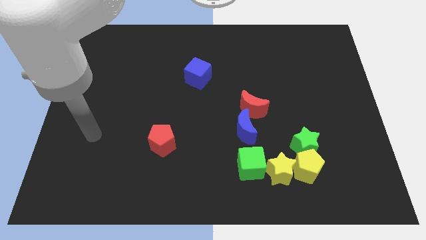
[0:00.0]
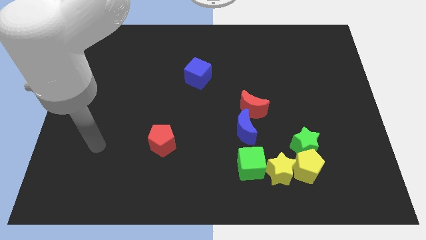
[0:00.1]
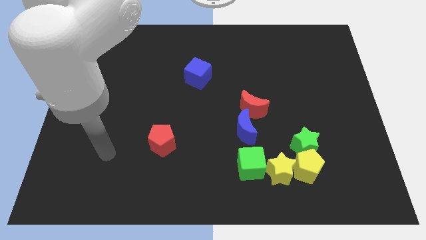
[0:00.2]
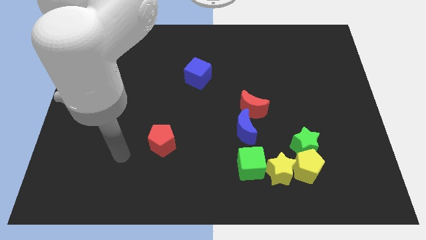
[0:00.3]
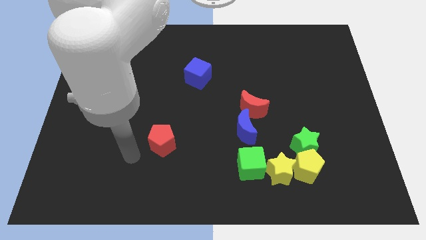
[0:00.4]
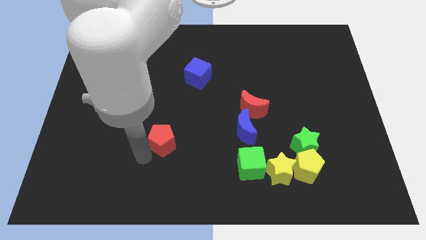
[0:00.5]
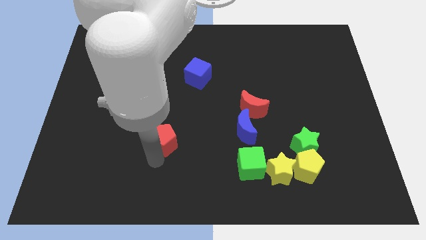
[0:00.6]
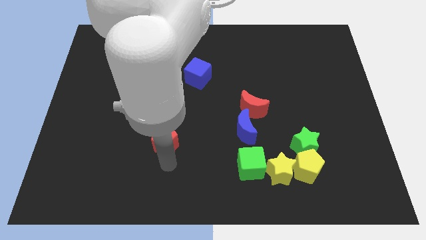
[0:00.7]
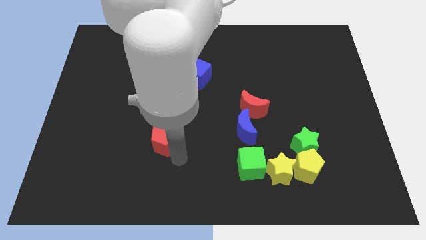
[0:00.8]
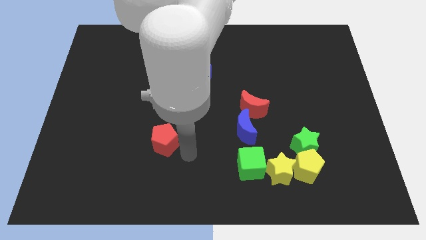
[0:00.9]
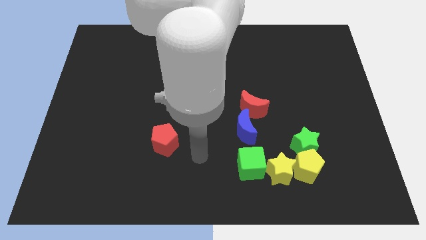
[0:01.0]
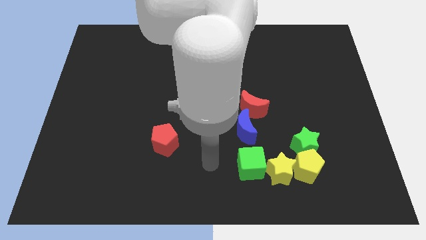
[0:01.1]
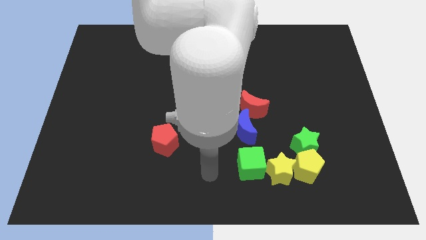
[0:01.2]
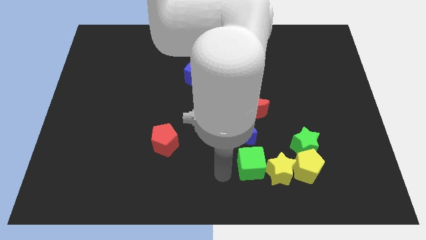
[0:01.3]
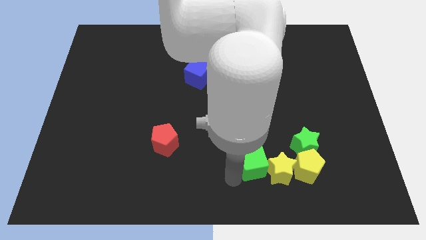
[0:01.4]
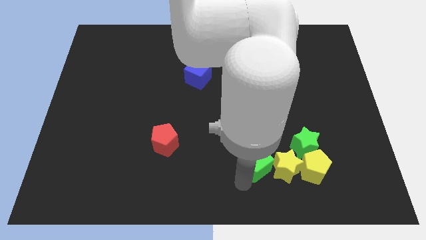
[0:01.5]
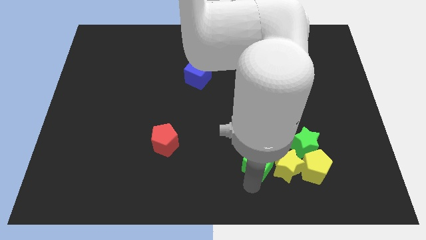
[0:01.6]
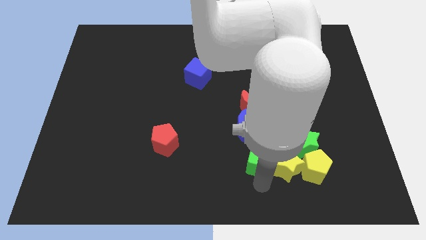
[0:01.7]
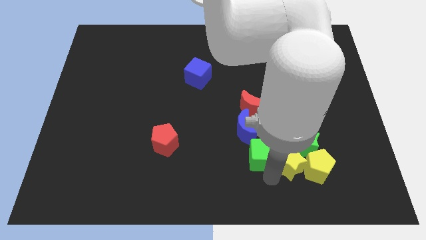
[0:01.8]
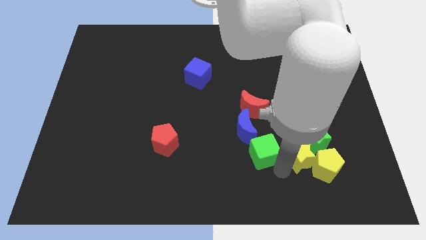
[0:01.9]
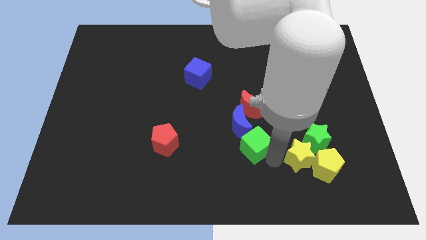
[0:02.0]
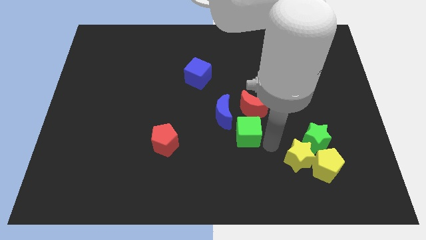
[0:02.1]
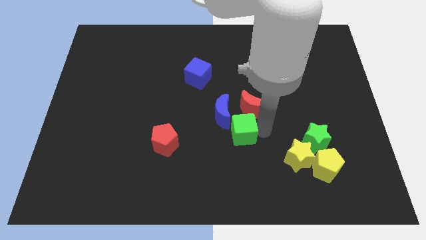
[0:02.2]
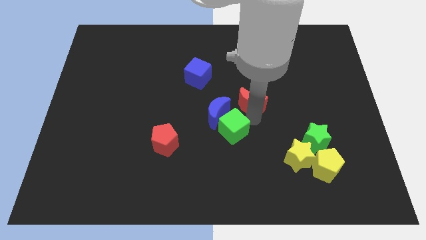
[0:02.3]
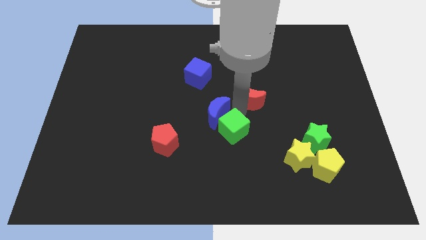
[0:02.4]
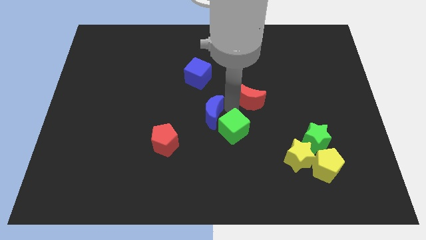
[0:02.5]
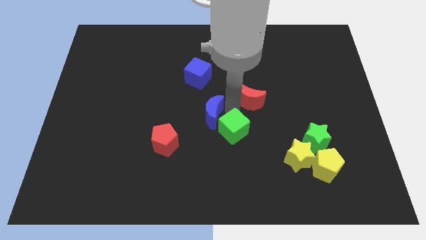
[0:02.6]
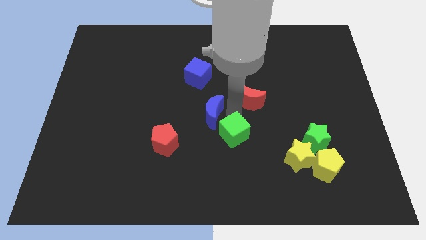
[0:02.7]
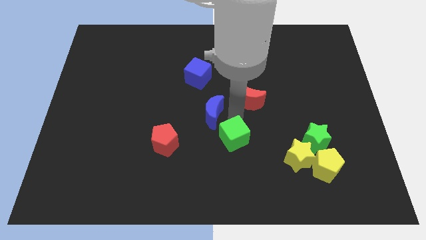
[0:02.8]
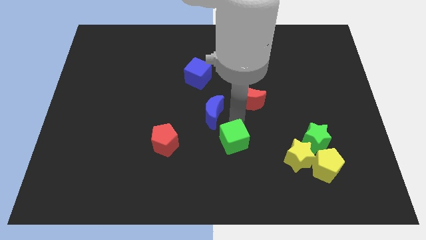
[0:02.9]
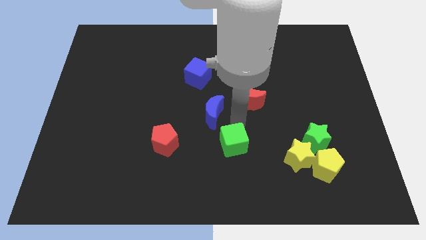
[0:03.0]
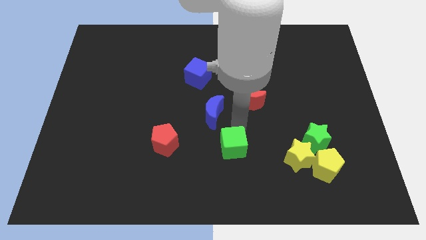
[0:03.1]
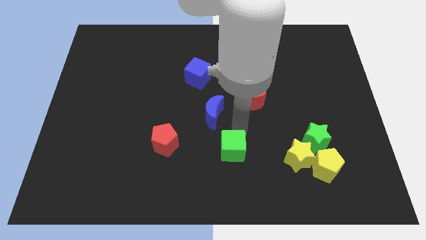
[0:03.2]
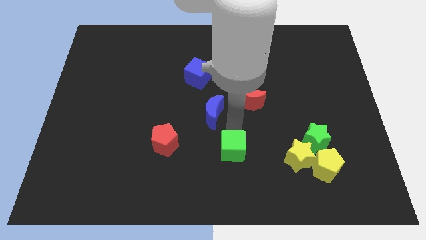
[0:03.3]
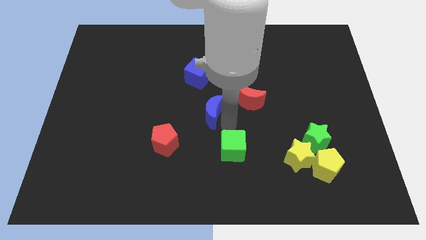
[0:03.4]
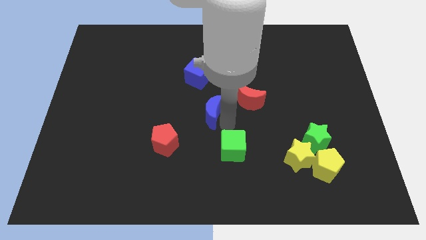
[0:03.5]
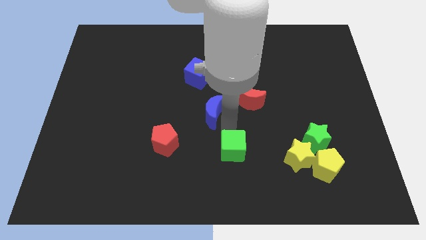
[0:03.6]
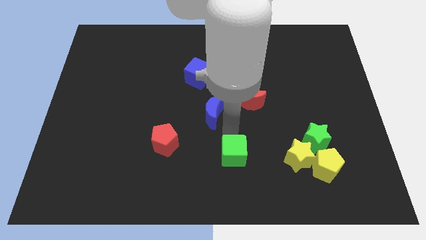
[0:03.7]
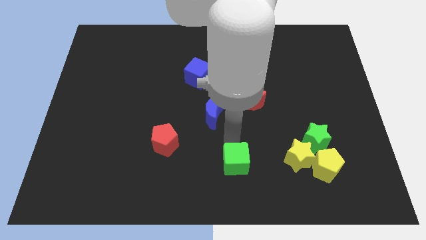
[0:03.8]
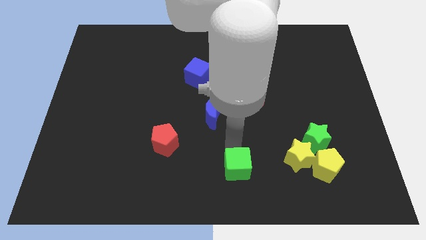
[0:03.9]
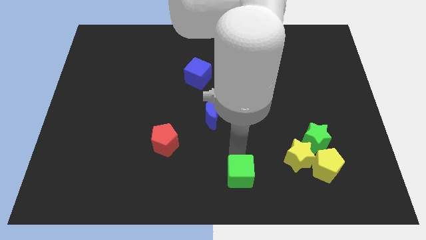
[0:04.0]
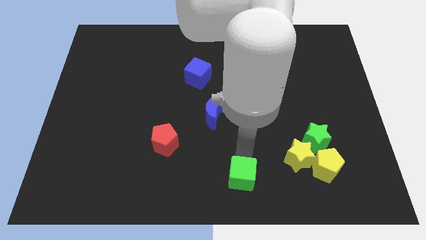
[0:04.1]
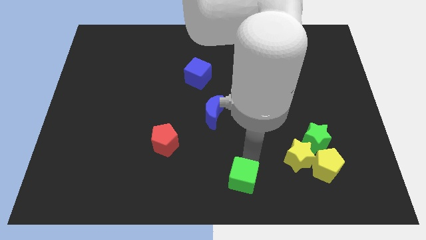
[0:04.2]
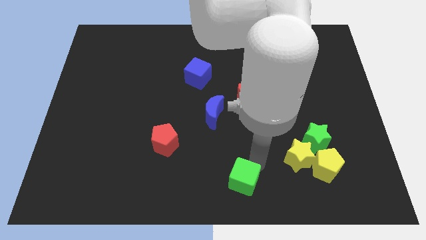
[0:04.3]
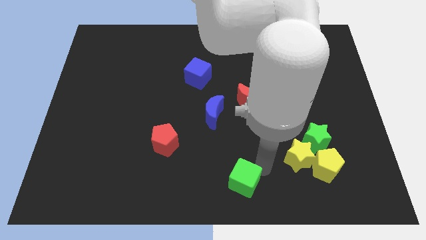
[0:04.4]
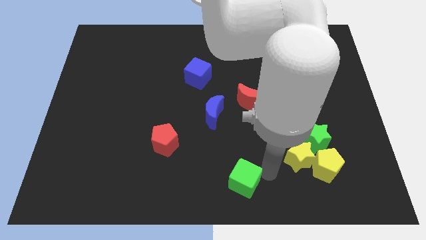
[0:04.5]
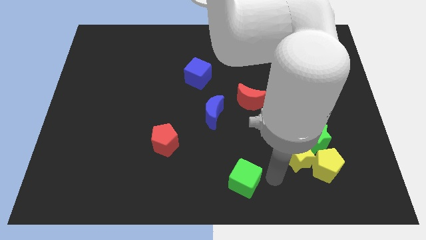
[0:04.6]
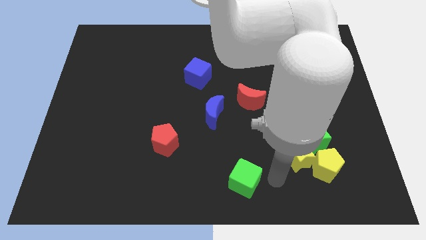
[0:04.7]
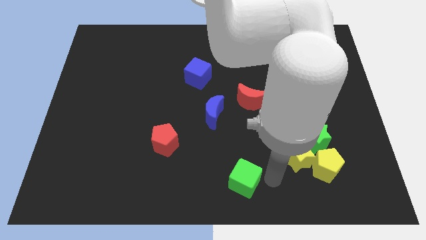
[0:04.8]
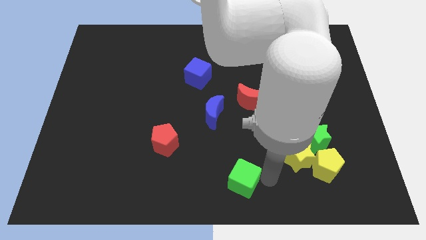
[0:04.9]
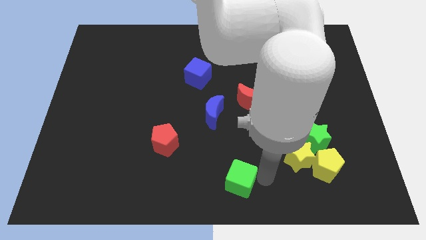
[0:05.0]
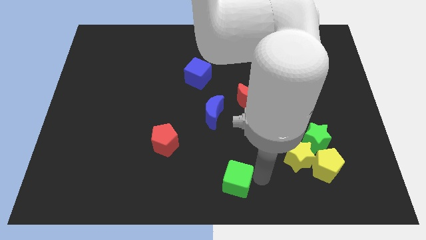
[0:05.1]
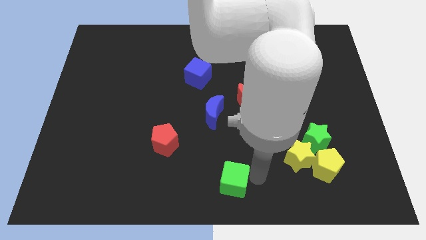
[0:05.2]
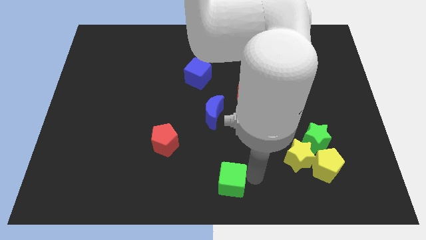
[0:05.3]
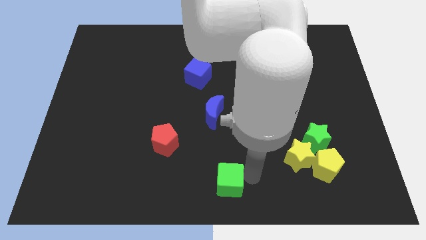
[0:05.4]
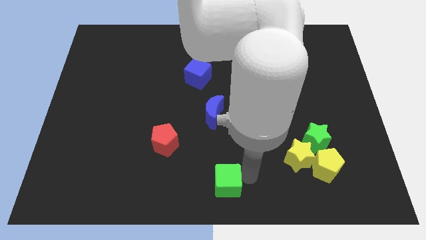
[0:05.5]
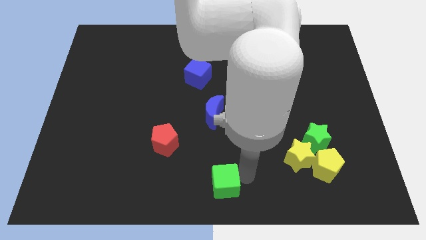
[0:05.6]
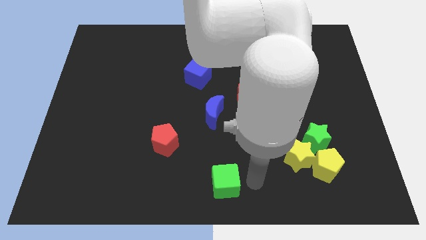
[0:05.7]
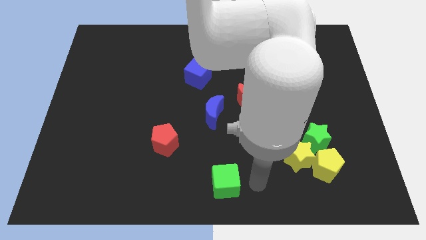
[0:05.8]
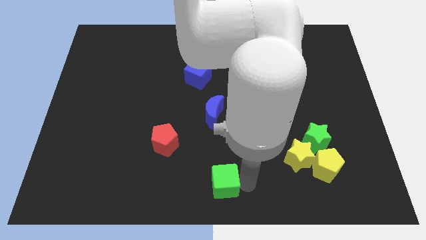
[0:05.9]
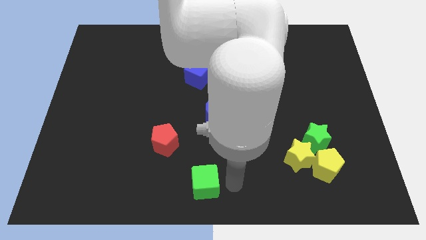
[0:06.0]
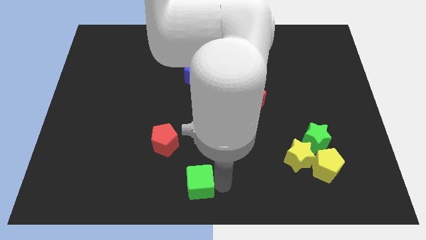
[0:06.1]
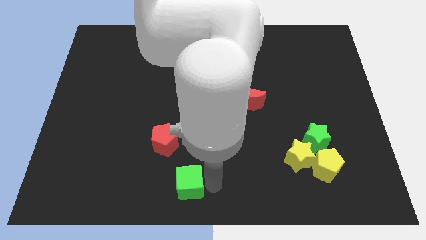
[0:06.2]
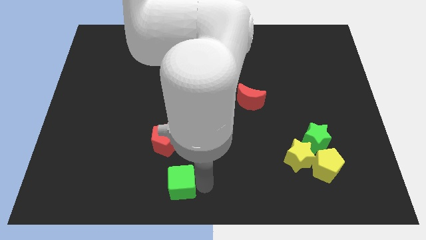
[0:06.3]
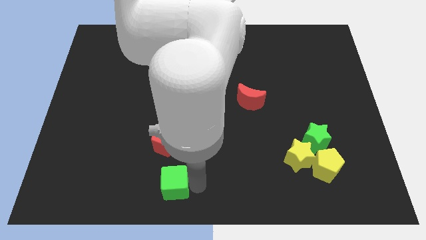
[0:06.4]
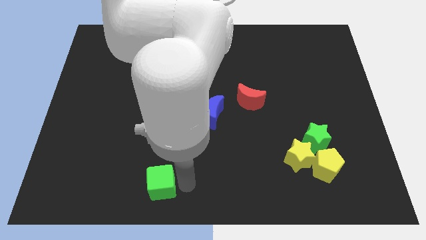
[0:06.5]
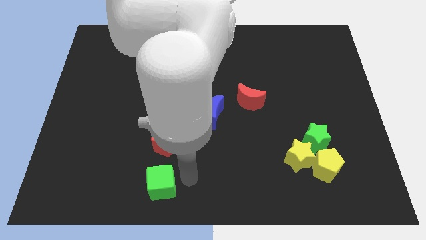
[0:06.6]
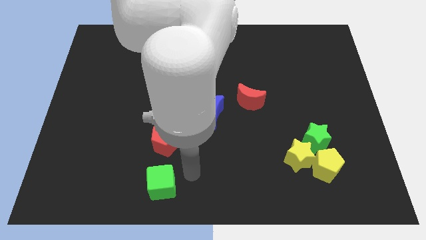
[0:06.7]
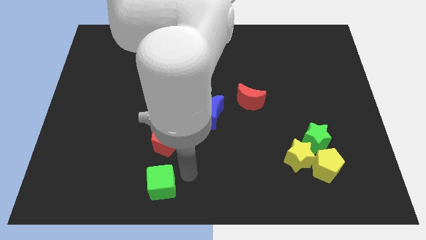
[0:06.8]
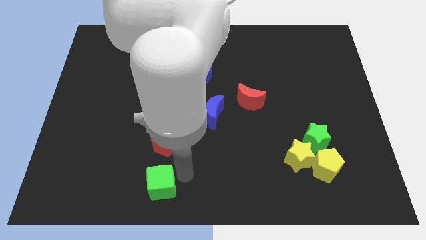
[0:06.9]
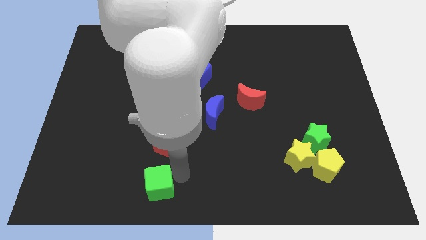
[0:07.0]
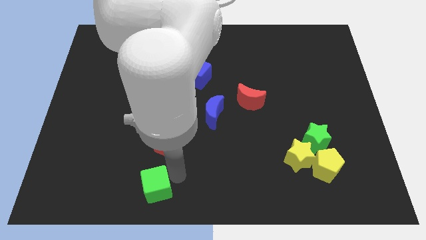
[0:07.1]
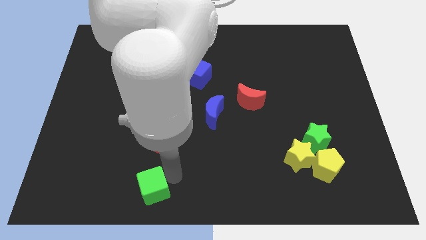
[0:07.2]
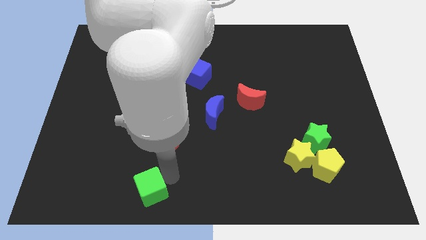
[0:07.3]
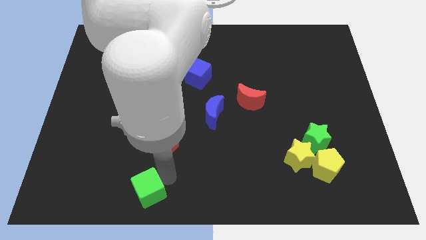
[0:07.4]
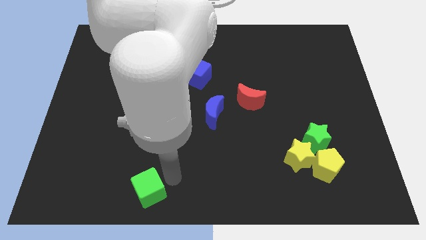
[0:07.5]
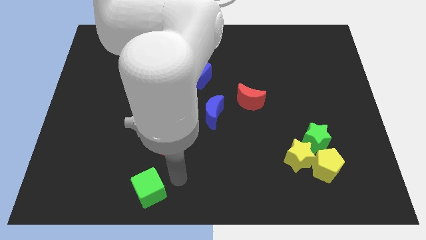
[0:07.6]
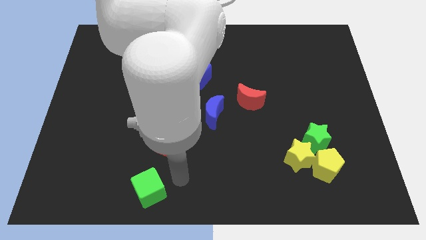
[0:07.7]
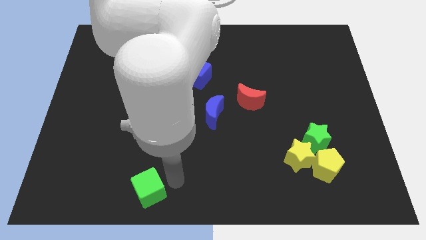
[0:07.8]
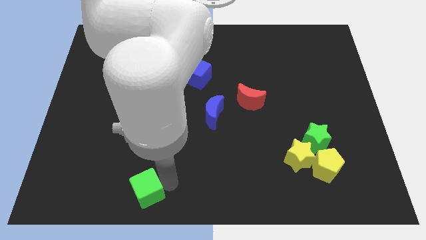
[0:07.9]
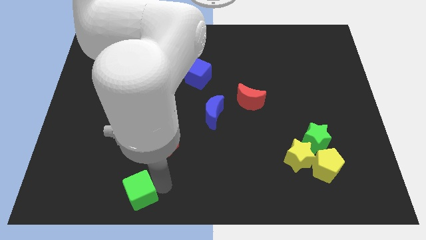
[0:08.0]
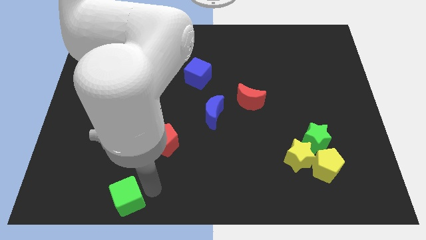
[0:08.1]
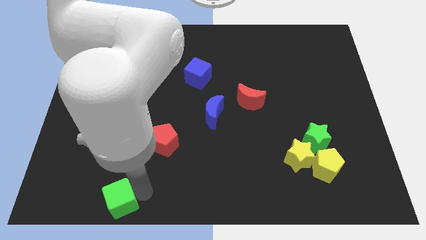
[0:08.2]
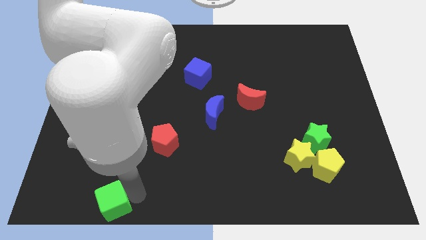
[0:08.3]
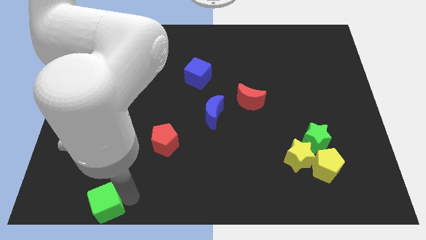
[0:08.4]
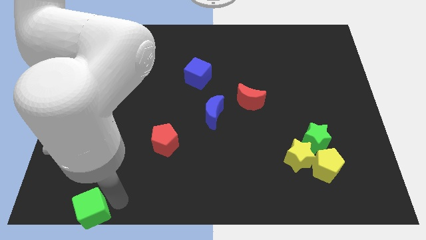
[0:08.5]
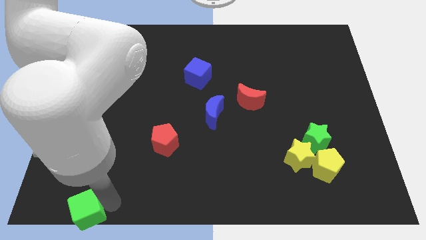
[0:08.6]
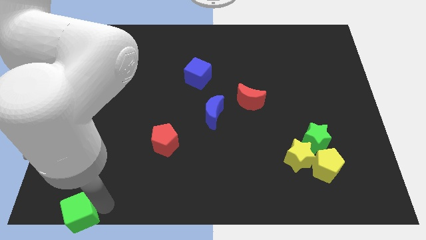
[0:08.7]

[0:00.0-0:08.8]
push the green cube to the bottom left of the board
